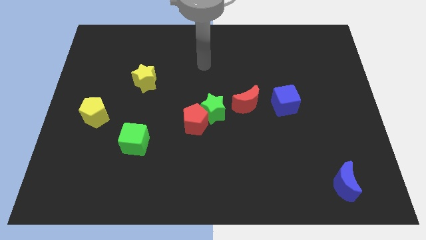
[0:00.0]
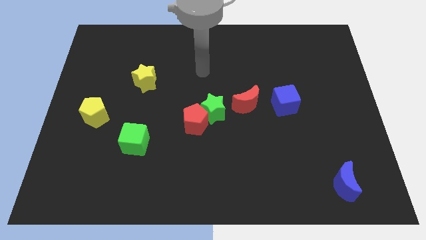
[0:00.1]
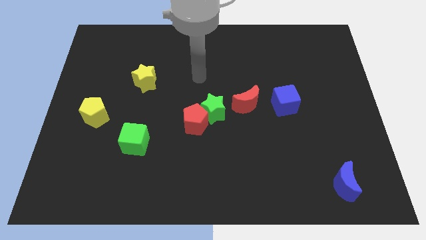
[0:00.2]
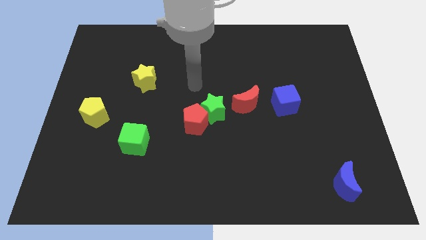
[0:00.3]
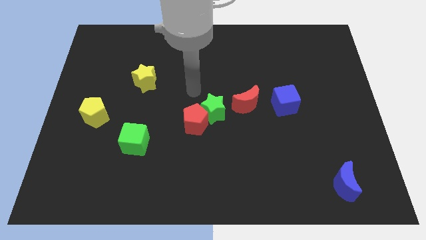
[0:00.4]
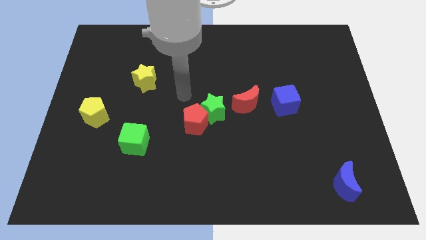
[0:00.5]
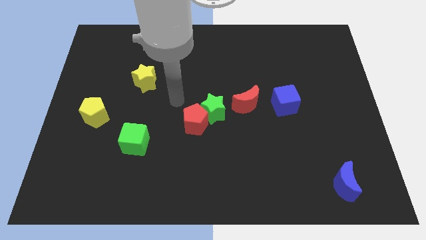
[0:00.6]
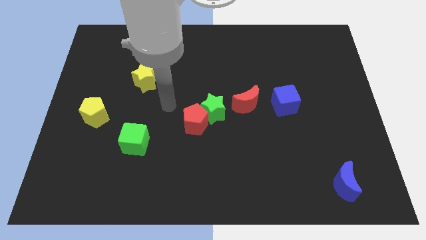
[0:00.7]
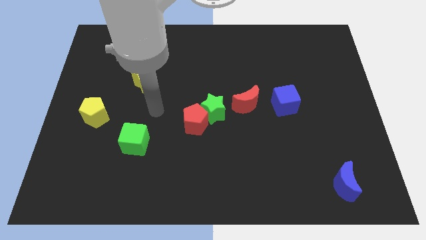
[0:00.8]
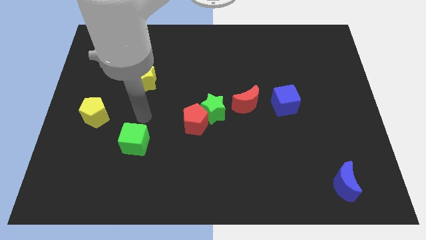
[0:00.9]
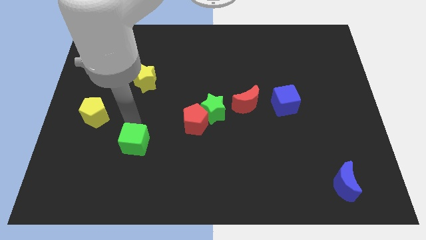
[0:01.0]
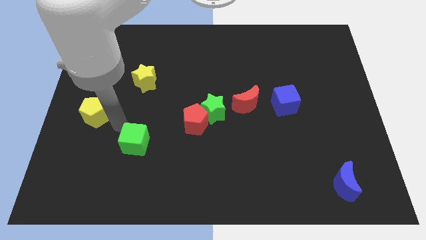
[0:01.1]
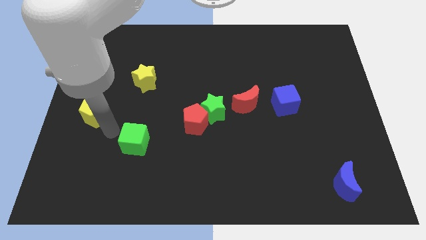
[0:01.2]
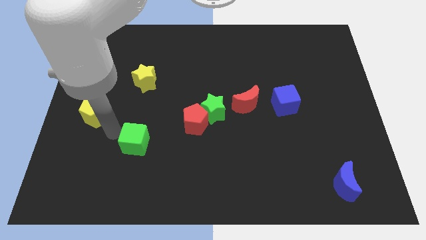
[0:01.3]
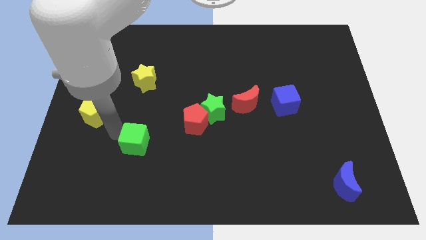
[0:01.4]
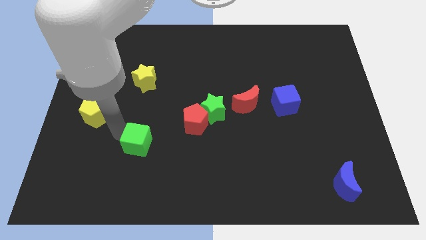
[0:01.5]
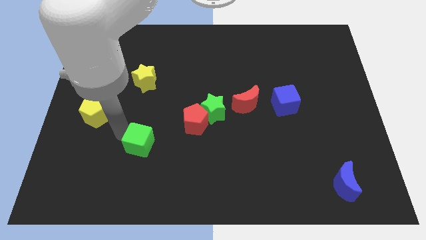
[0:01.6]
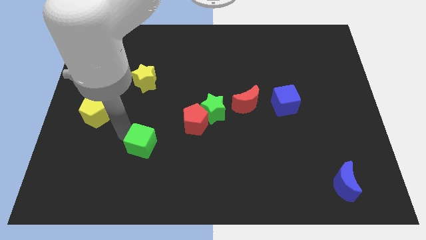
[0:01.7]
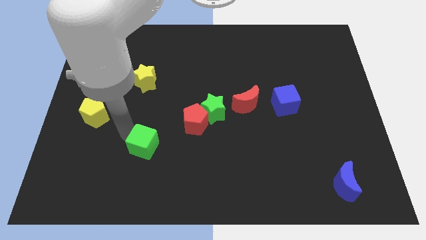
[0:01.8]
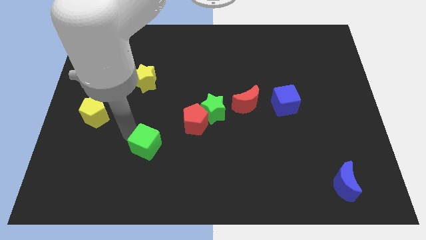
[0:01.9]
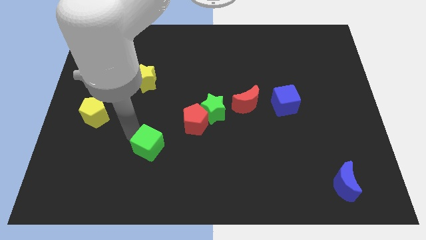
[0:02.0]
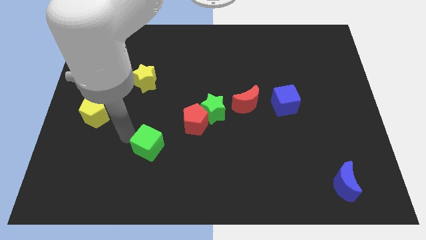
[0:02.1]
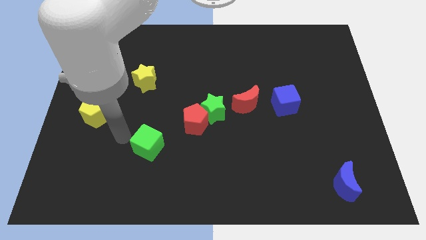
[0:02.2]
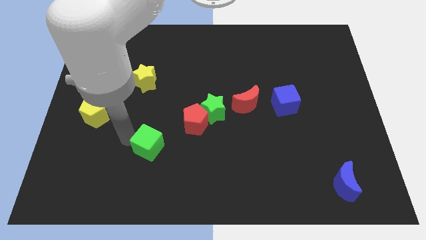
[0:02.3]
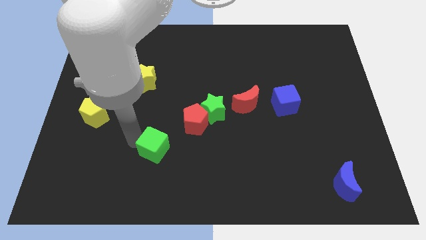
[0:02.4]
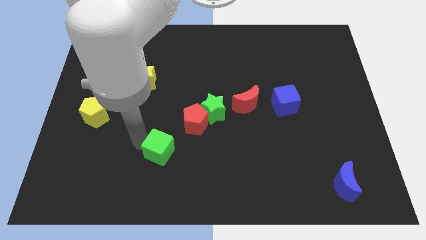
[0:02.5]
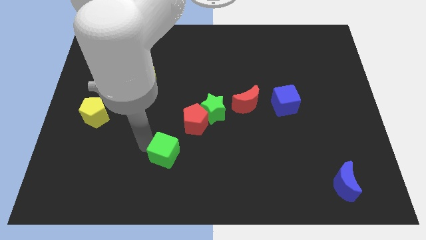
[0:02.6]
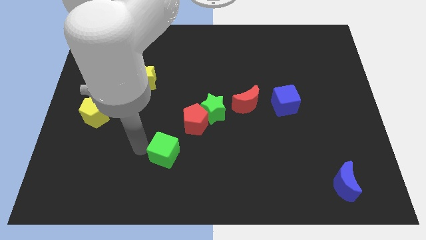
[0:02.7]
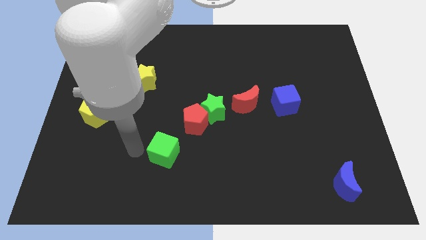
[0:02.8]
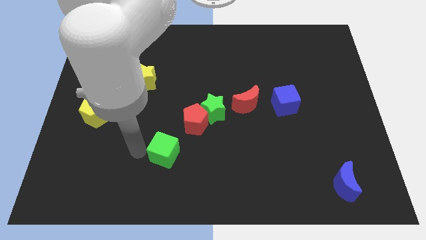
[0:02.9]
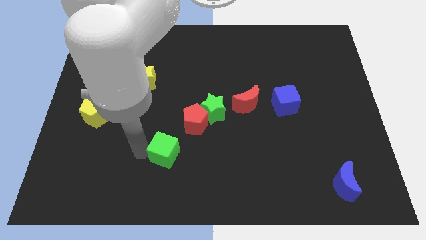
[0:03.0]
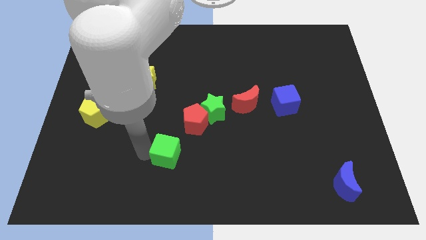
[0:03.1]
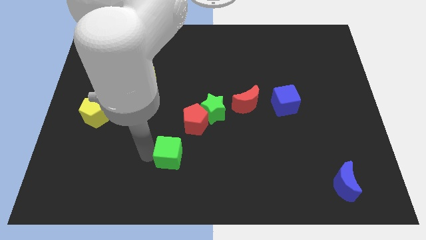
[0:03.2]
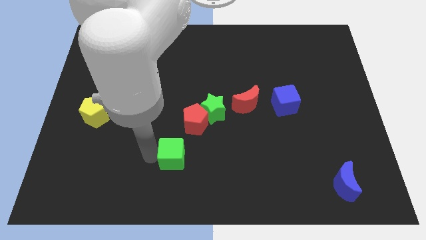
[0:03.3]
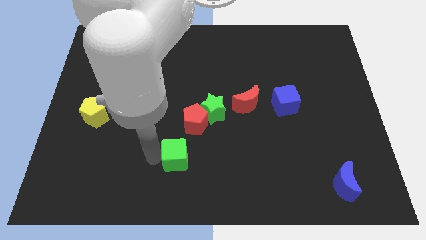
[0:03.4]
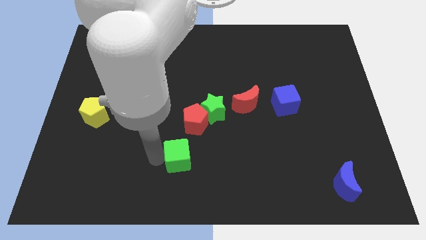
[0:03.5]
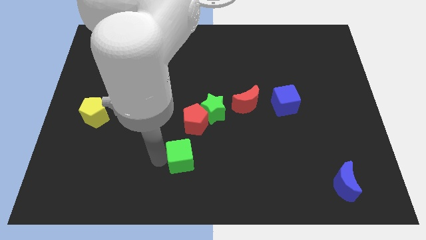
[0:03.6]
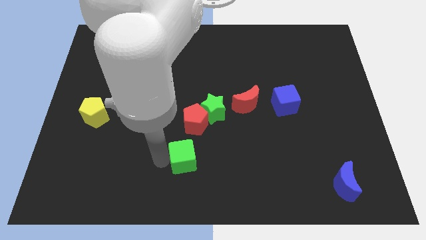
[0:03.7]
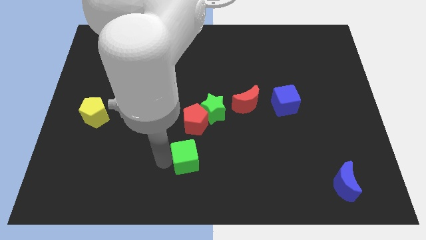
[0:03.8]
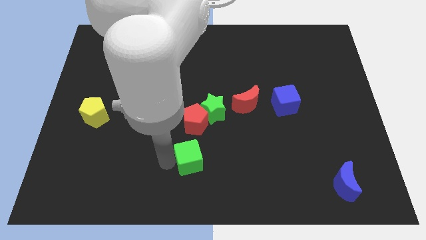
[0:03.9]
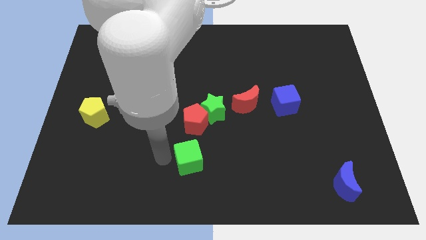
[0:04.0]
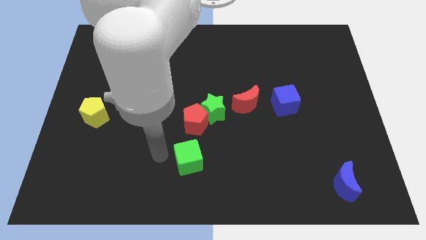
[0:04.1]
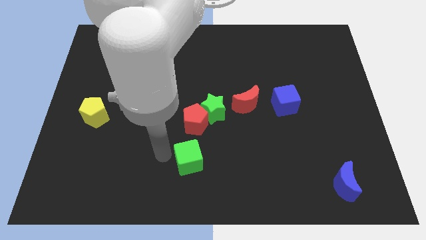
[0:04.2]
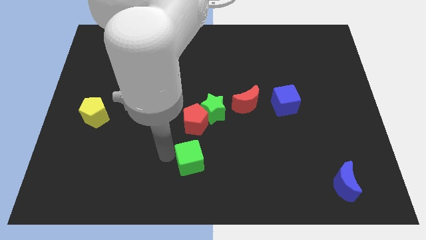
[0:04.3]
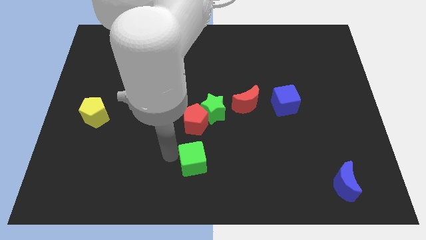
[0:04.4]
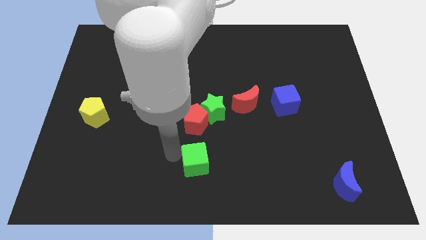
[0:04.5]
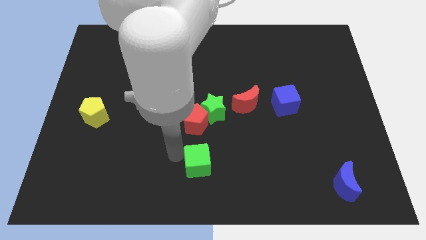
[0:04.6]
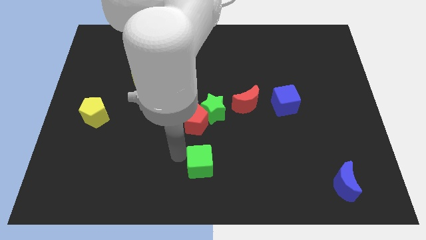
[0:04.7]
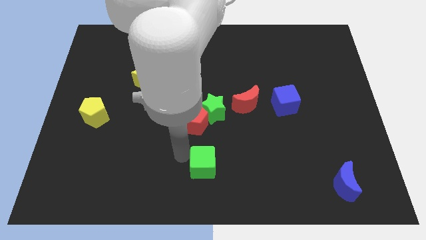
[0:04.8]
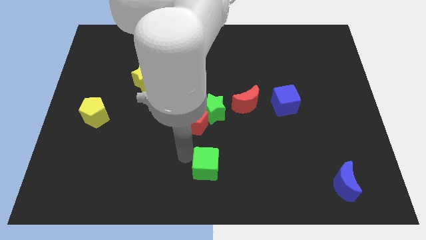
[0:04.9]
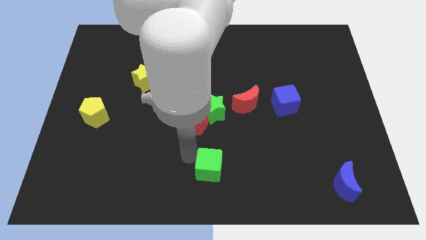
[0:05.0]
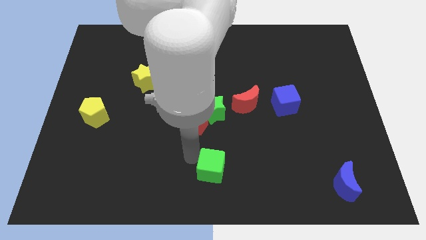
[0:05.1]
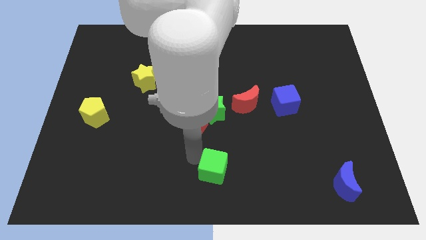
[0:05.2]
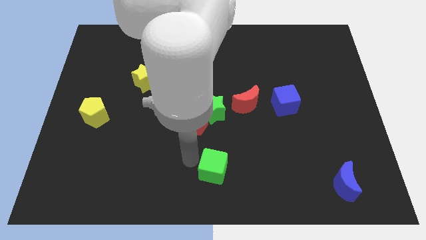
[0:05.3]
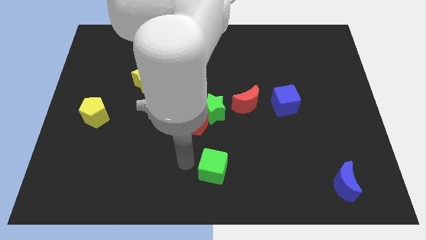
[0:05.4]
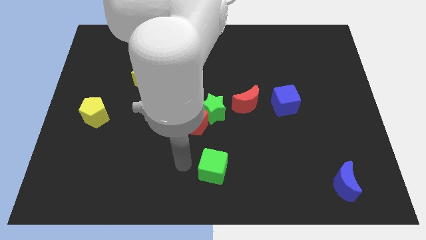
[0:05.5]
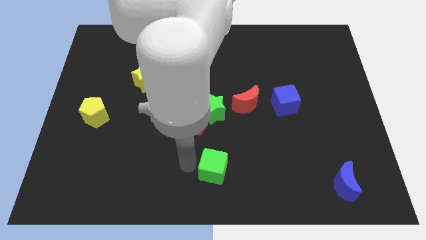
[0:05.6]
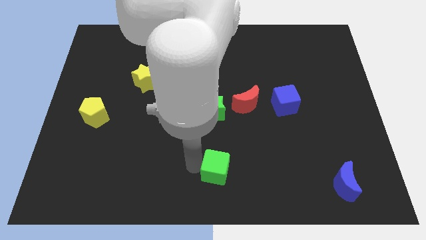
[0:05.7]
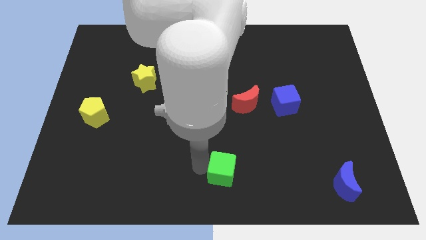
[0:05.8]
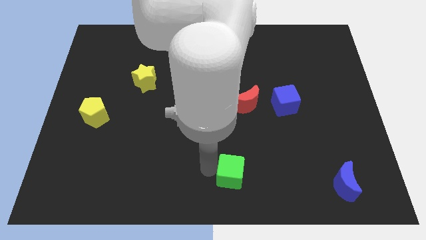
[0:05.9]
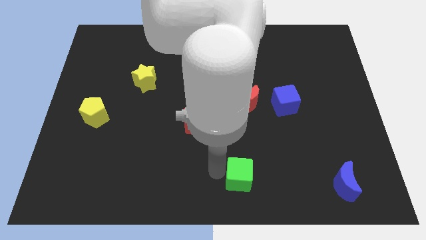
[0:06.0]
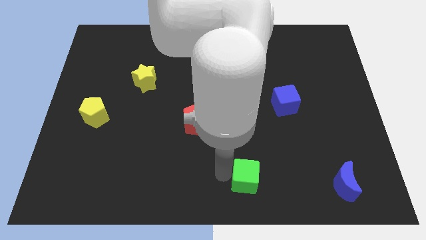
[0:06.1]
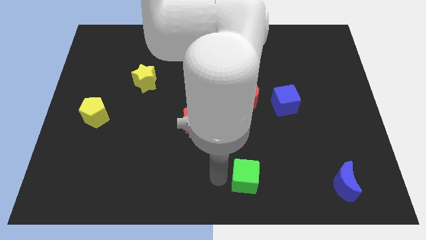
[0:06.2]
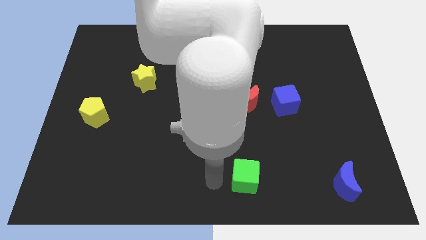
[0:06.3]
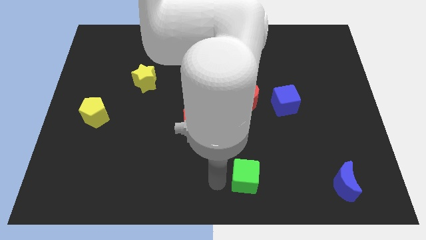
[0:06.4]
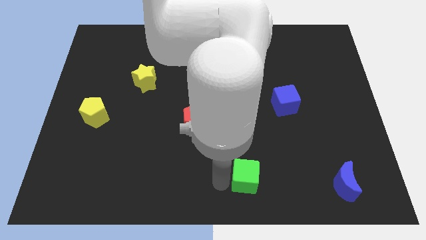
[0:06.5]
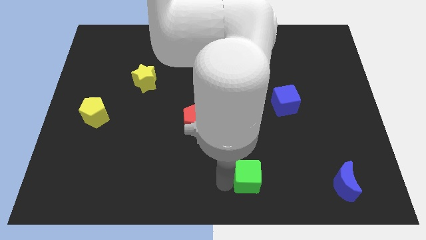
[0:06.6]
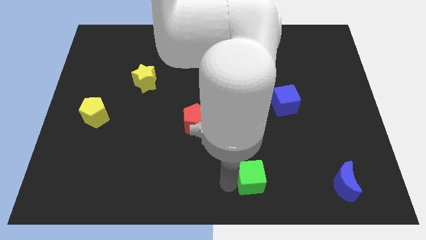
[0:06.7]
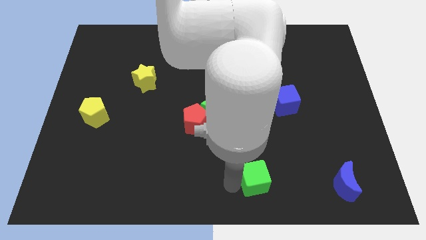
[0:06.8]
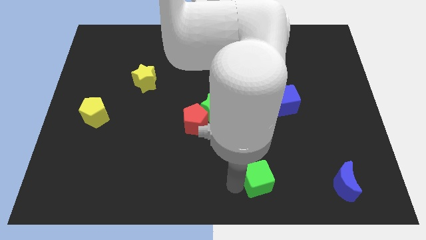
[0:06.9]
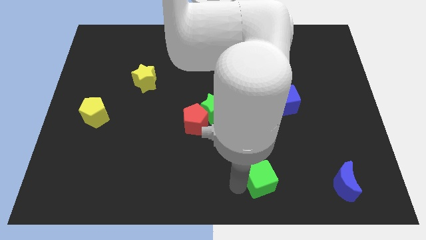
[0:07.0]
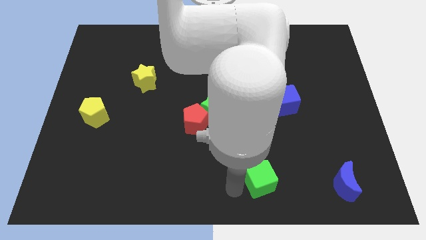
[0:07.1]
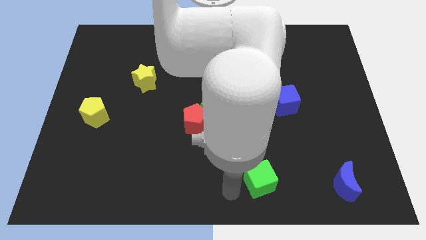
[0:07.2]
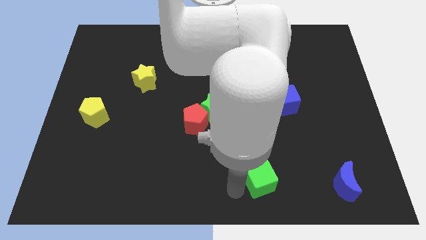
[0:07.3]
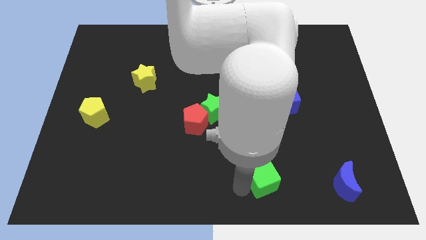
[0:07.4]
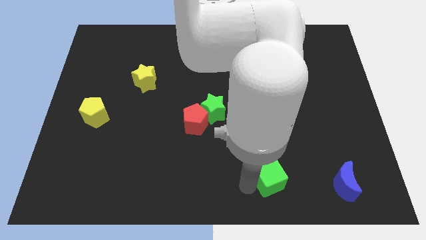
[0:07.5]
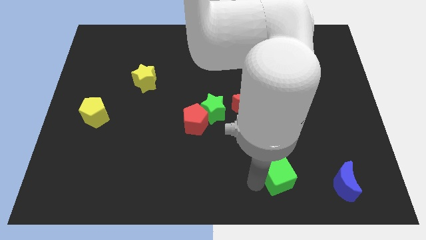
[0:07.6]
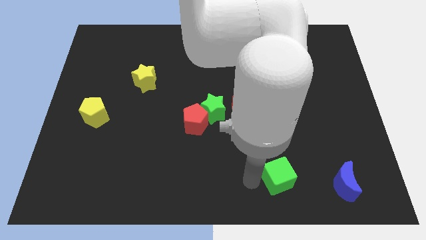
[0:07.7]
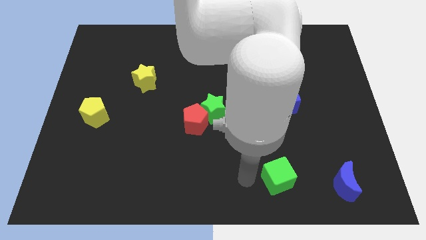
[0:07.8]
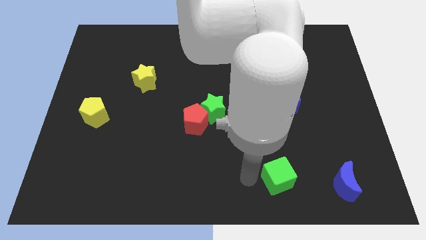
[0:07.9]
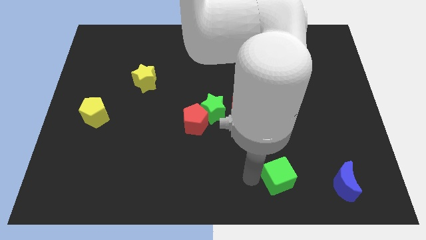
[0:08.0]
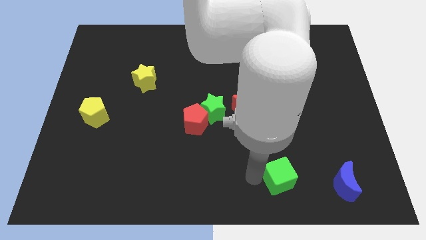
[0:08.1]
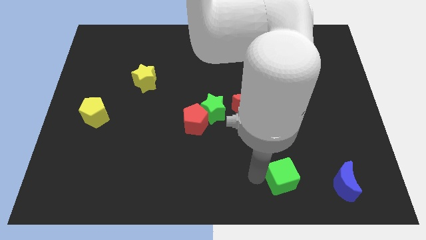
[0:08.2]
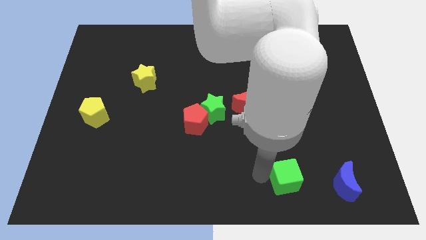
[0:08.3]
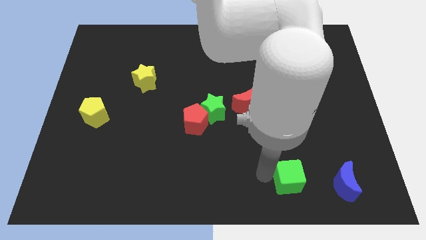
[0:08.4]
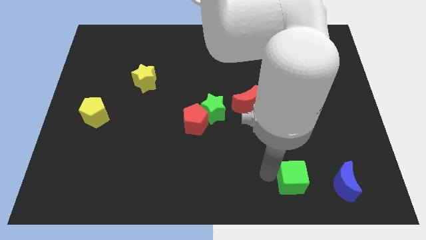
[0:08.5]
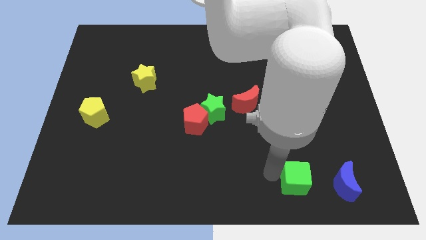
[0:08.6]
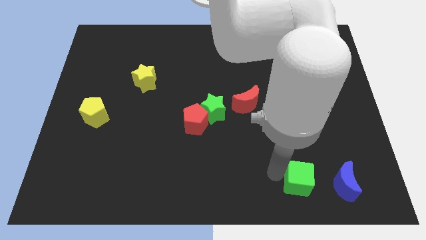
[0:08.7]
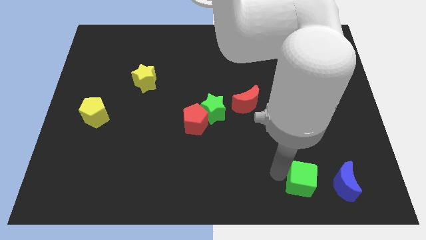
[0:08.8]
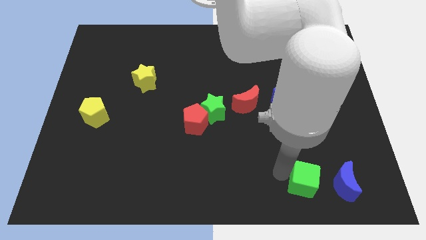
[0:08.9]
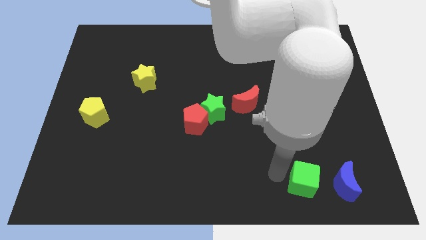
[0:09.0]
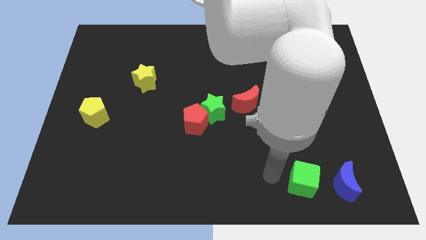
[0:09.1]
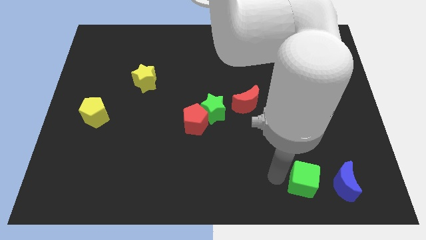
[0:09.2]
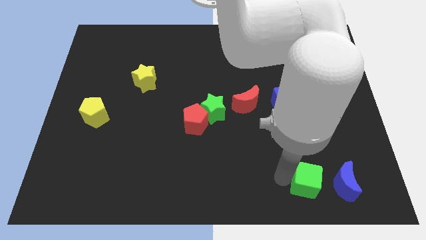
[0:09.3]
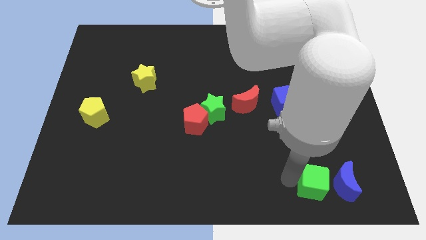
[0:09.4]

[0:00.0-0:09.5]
put the green cube close to the blue moon
